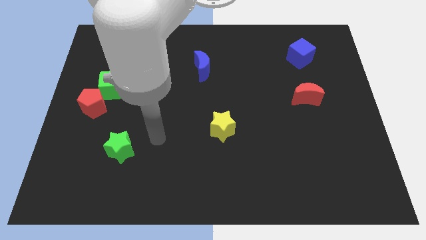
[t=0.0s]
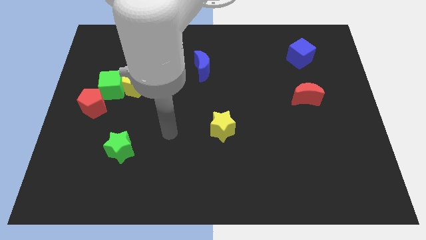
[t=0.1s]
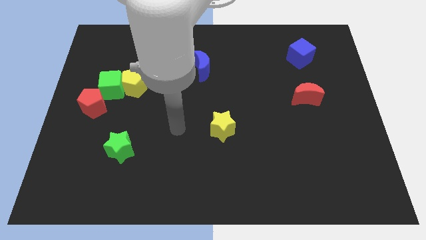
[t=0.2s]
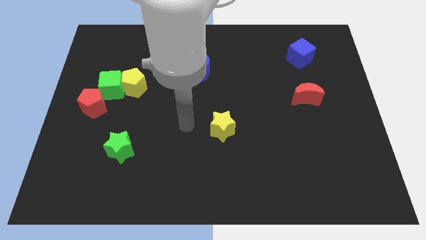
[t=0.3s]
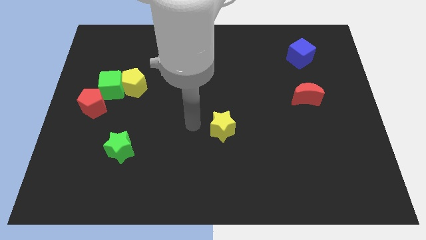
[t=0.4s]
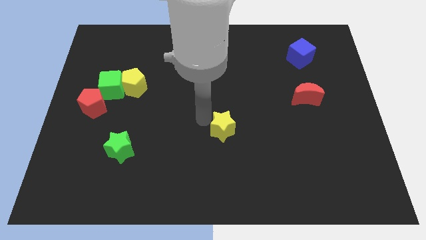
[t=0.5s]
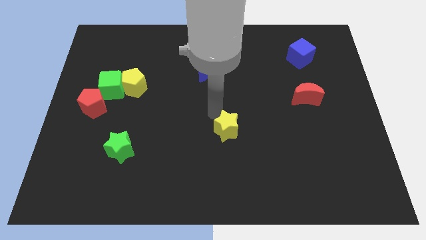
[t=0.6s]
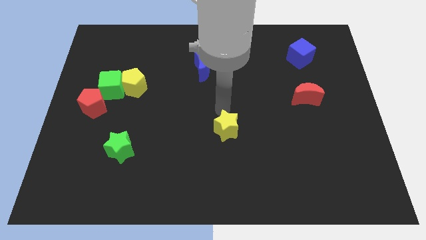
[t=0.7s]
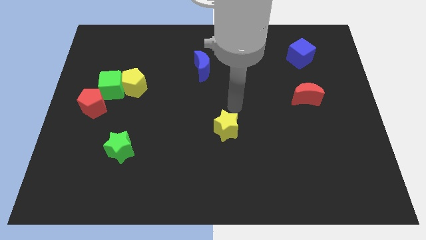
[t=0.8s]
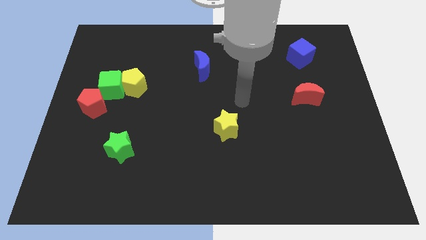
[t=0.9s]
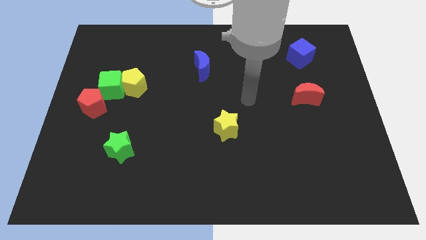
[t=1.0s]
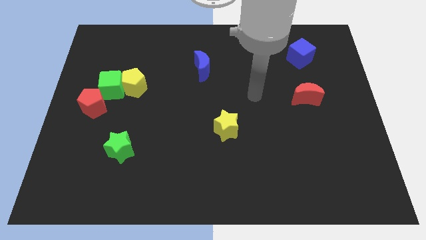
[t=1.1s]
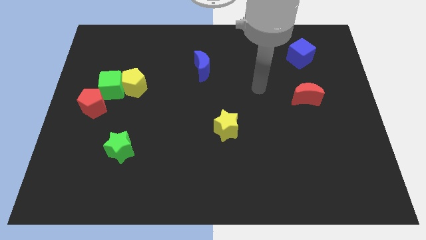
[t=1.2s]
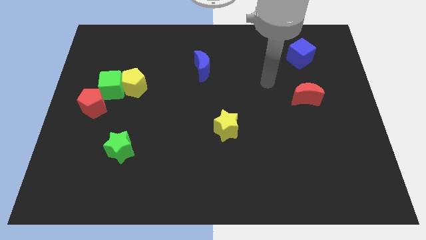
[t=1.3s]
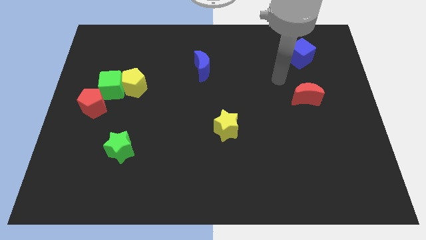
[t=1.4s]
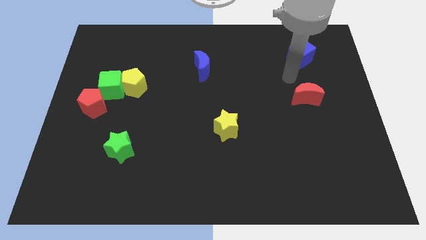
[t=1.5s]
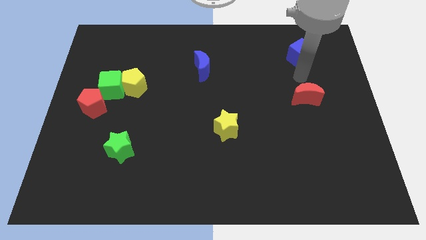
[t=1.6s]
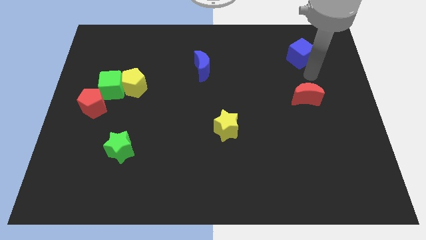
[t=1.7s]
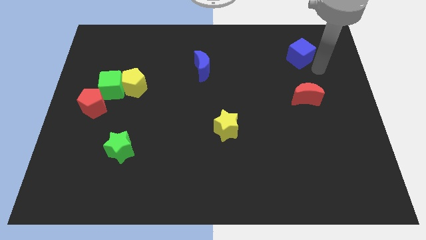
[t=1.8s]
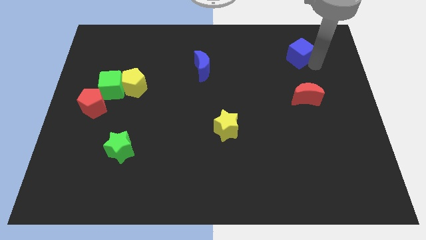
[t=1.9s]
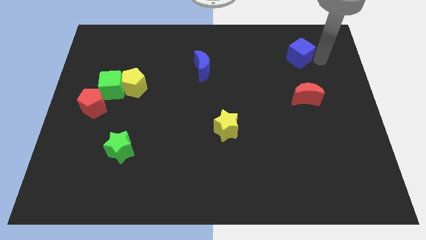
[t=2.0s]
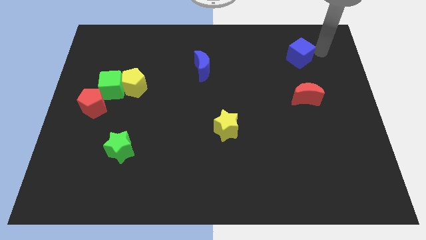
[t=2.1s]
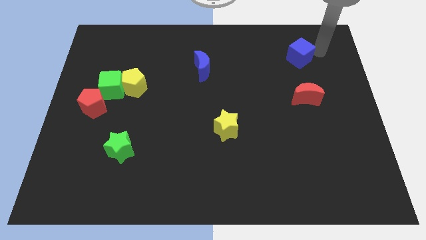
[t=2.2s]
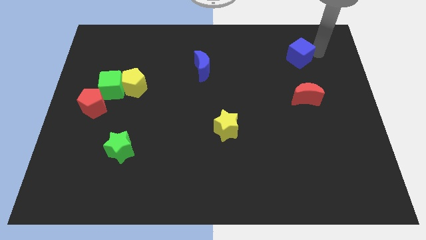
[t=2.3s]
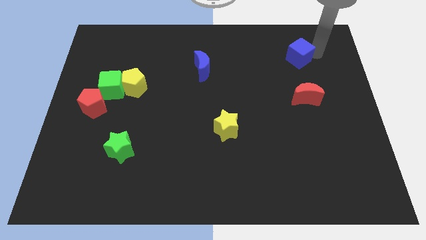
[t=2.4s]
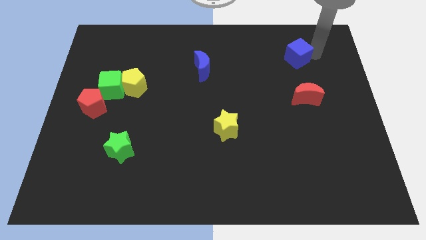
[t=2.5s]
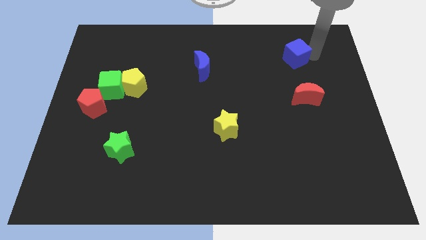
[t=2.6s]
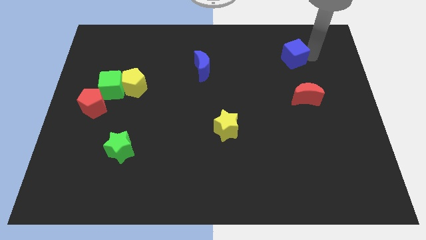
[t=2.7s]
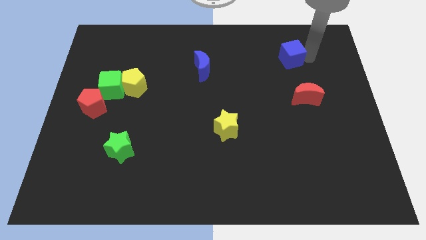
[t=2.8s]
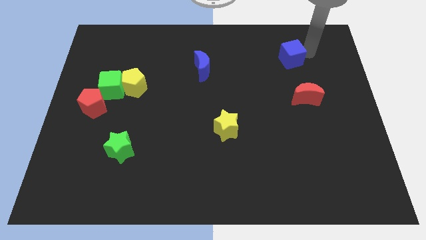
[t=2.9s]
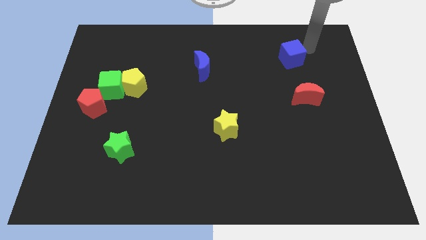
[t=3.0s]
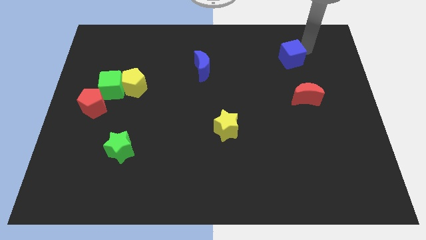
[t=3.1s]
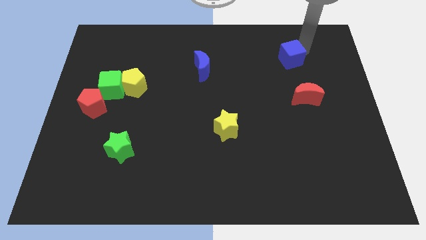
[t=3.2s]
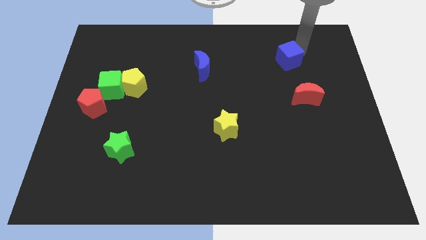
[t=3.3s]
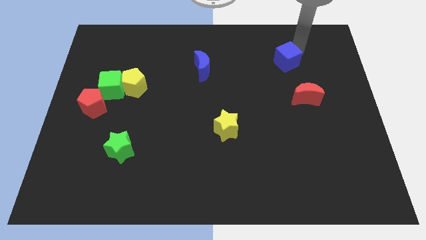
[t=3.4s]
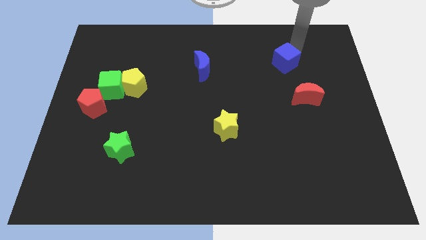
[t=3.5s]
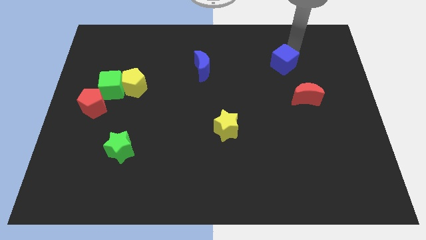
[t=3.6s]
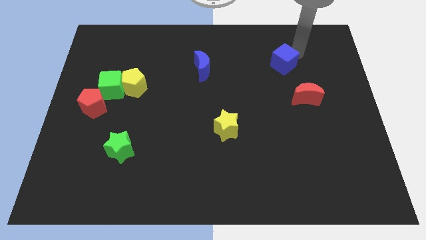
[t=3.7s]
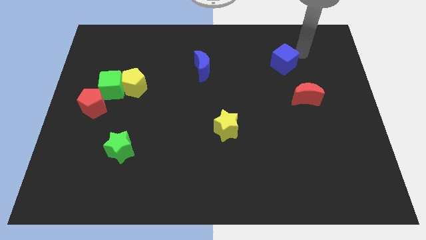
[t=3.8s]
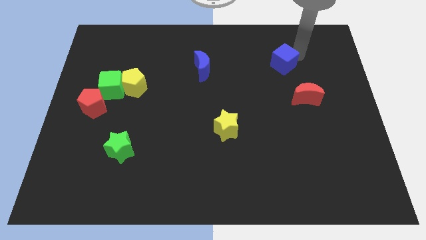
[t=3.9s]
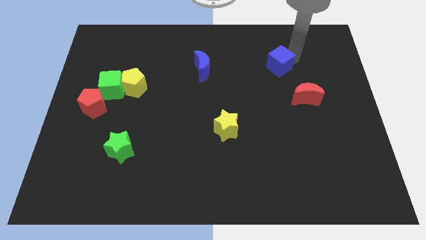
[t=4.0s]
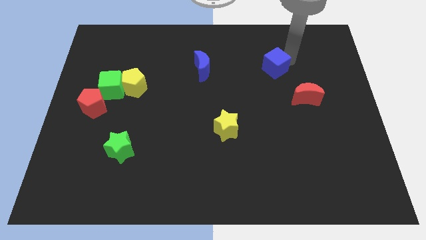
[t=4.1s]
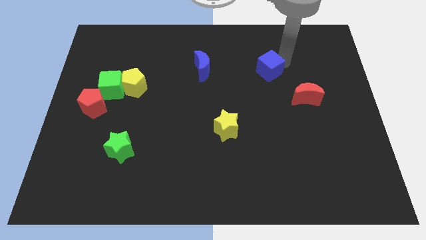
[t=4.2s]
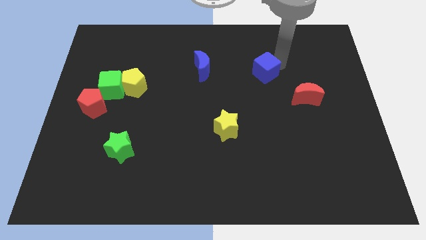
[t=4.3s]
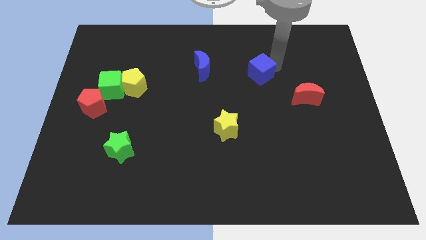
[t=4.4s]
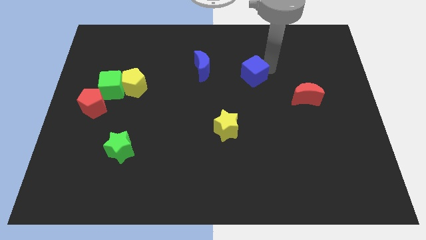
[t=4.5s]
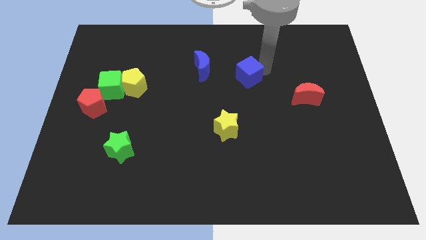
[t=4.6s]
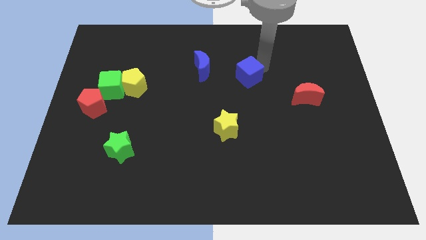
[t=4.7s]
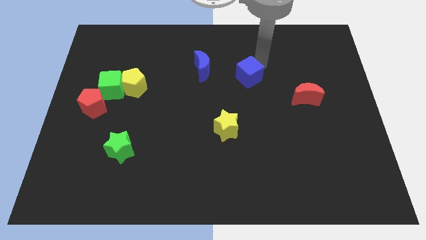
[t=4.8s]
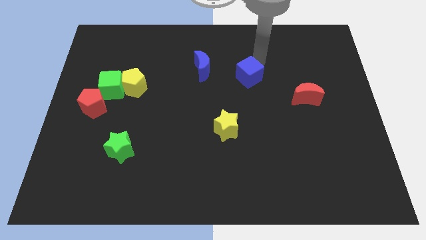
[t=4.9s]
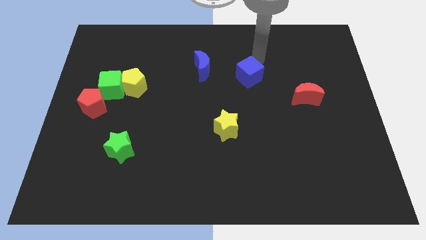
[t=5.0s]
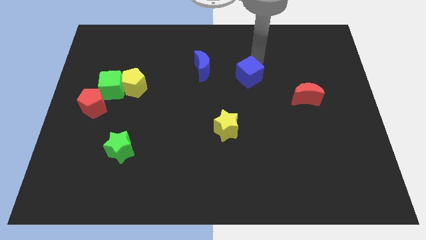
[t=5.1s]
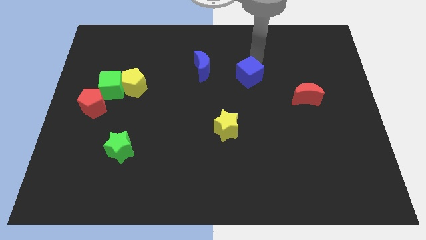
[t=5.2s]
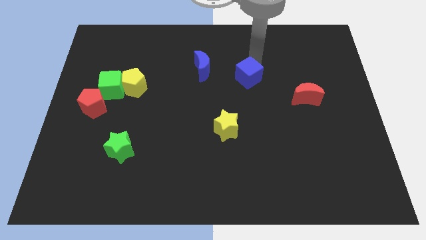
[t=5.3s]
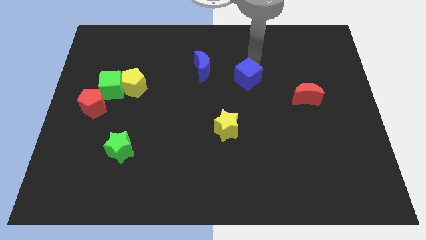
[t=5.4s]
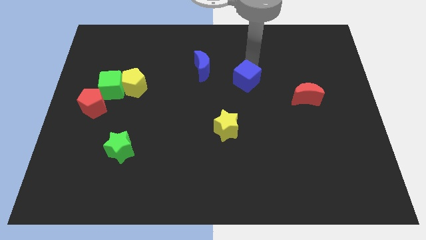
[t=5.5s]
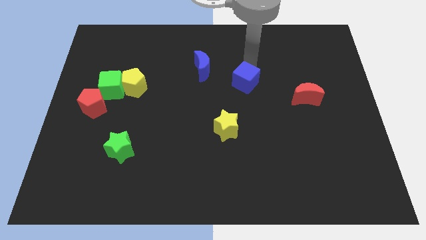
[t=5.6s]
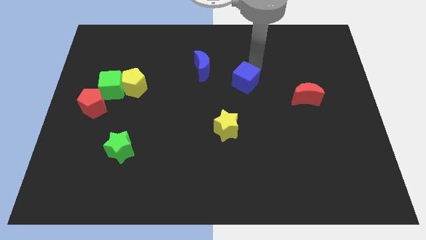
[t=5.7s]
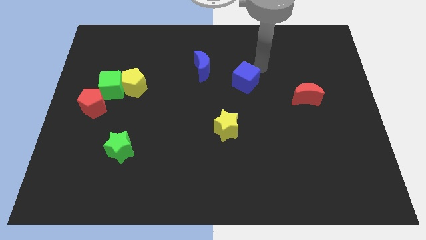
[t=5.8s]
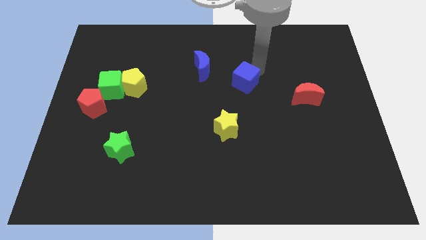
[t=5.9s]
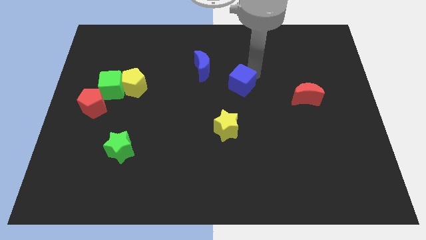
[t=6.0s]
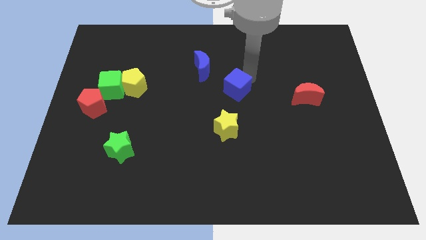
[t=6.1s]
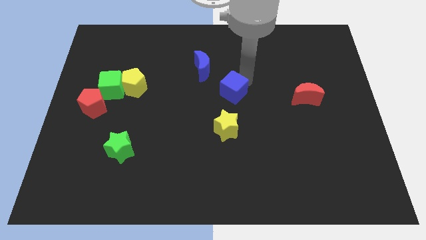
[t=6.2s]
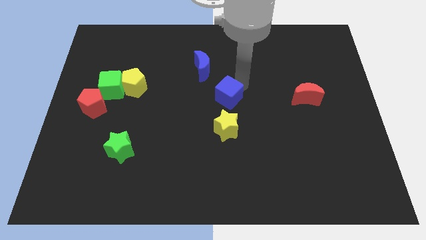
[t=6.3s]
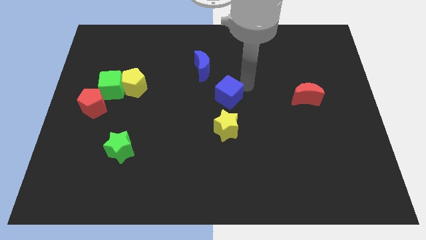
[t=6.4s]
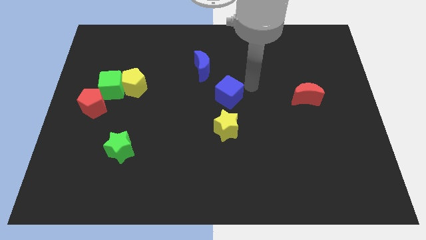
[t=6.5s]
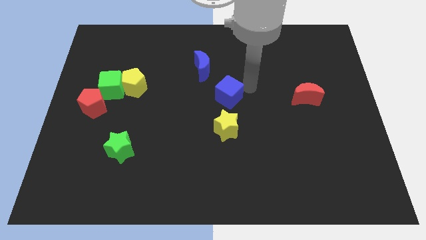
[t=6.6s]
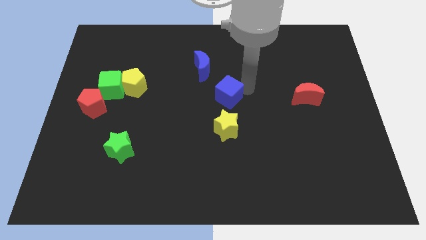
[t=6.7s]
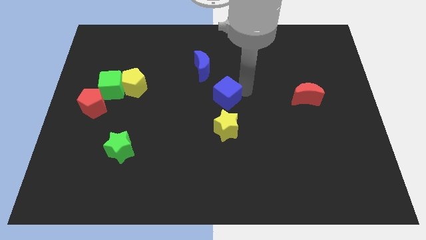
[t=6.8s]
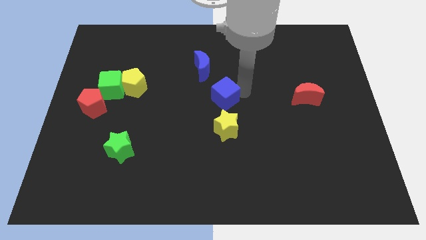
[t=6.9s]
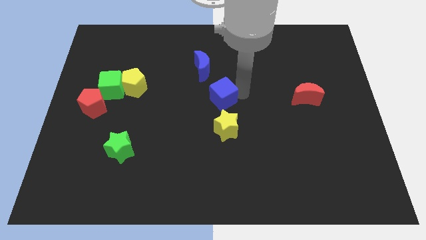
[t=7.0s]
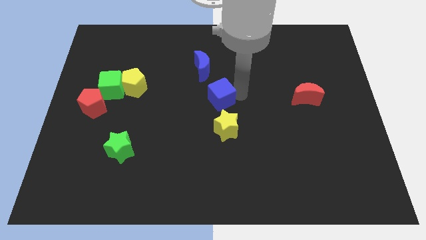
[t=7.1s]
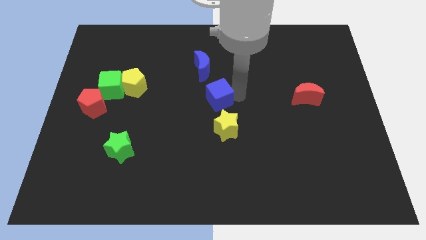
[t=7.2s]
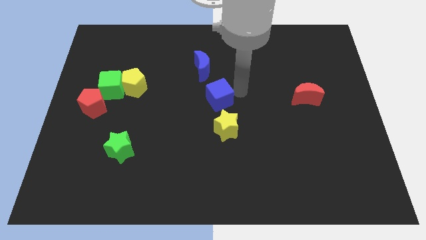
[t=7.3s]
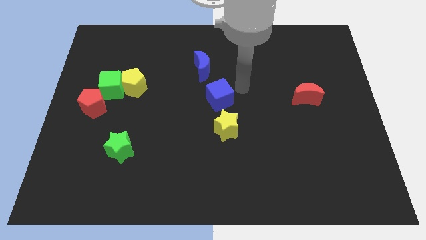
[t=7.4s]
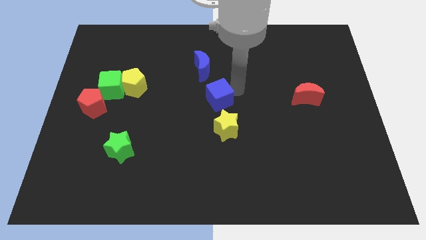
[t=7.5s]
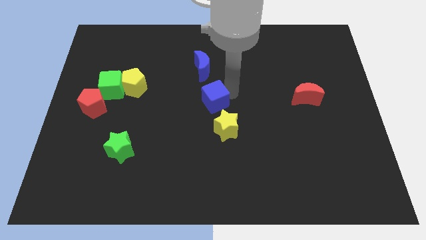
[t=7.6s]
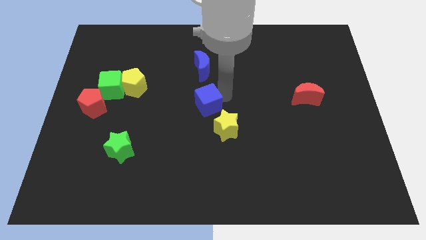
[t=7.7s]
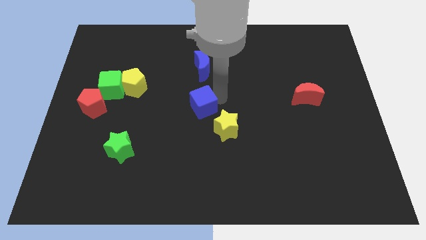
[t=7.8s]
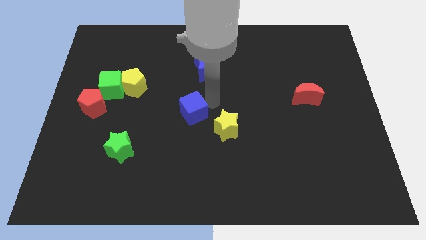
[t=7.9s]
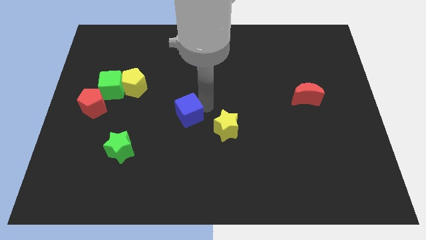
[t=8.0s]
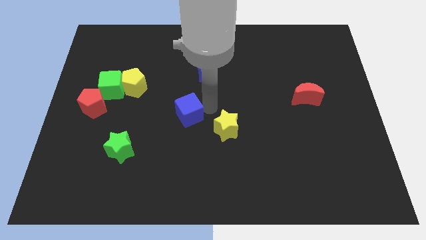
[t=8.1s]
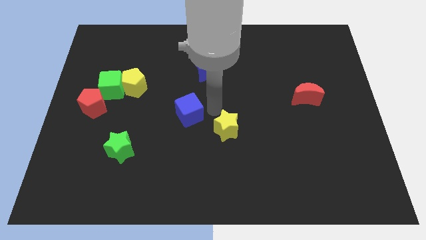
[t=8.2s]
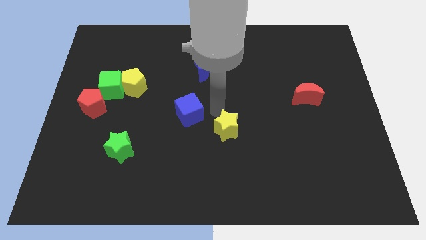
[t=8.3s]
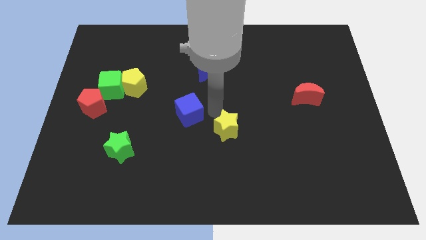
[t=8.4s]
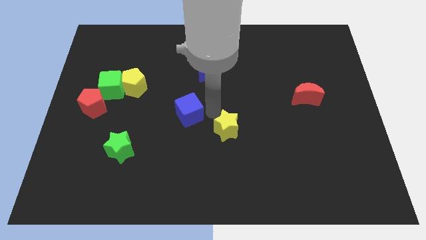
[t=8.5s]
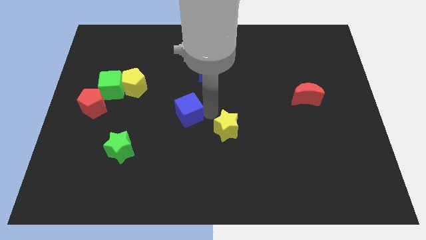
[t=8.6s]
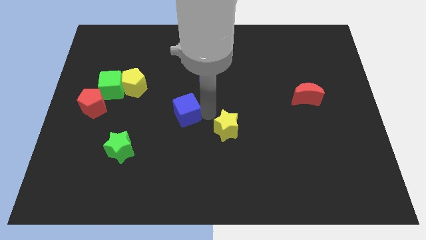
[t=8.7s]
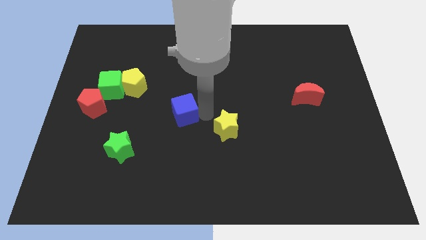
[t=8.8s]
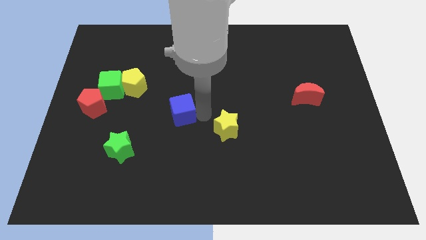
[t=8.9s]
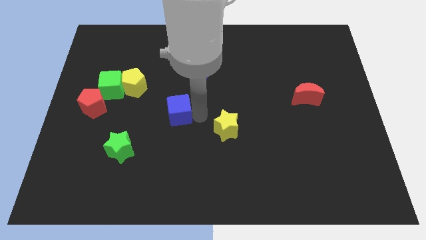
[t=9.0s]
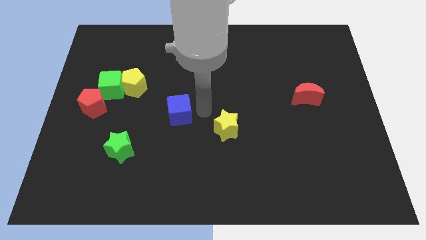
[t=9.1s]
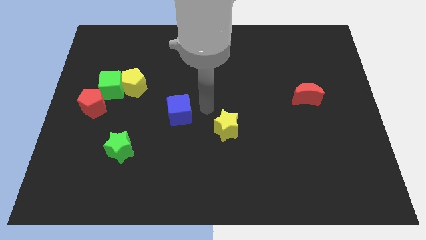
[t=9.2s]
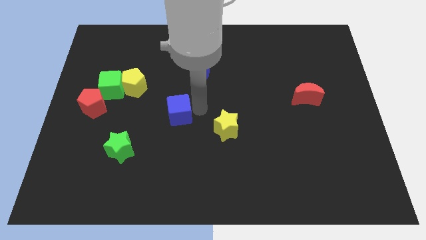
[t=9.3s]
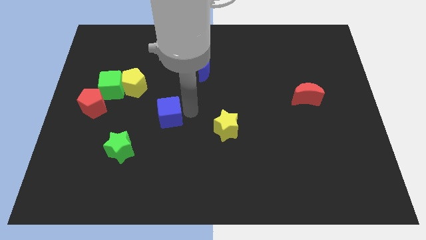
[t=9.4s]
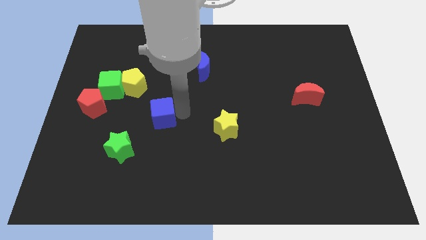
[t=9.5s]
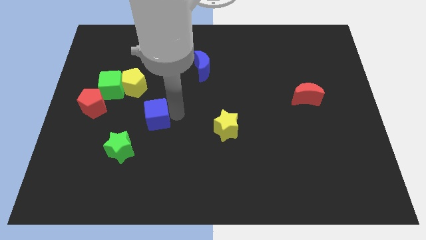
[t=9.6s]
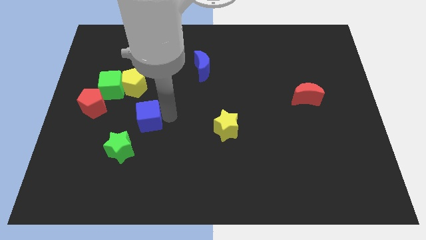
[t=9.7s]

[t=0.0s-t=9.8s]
slide the blue cube to the bottom of the yellow pentagon
